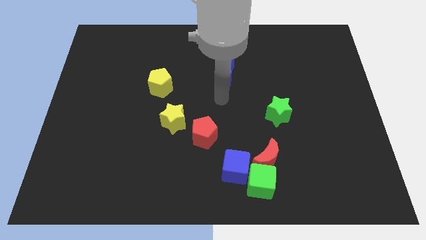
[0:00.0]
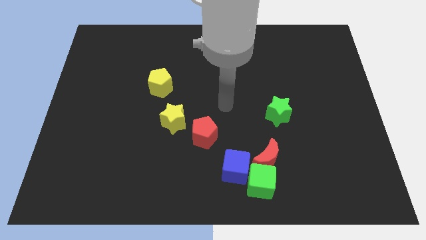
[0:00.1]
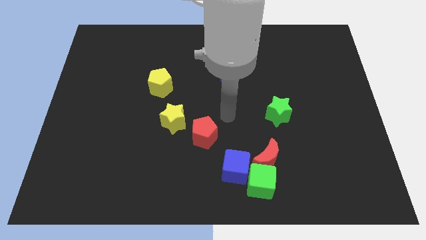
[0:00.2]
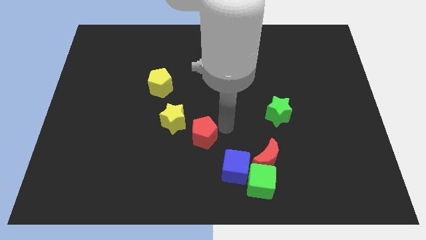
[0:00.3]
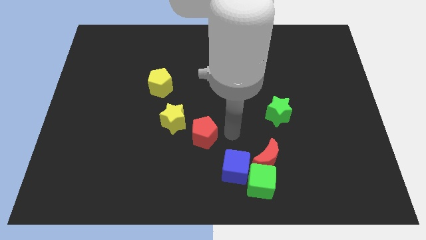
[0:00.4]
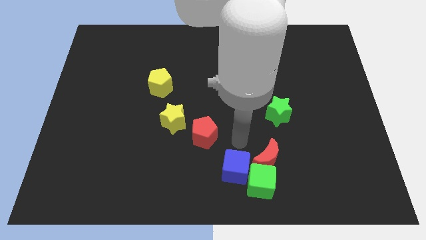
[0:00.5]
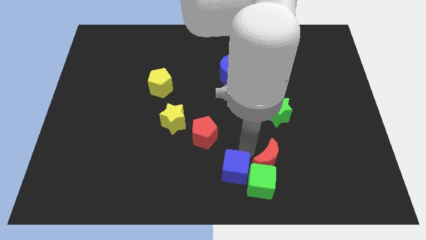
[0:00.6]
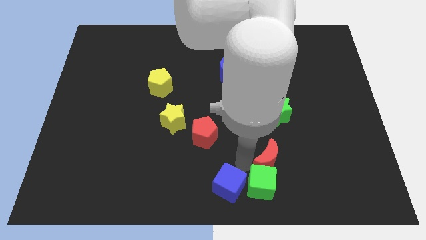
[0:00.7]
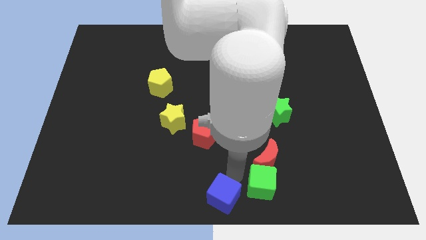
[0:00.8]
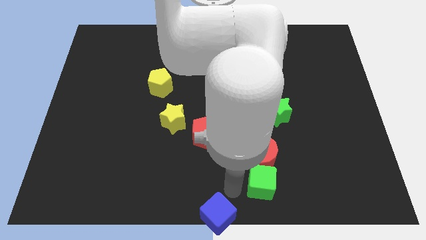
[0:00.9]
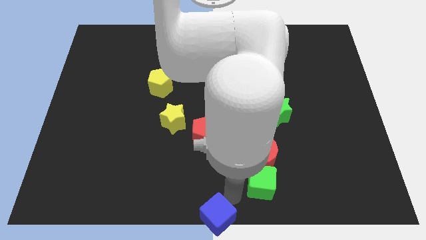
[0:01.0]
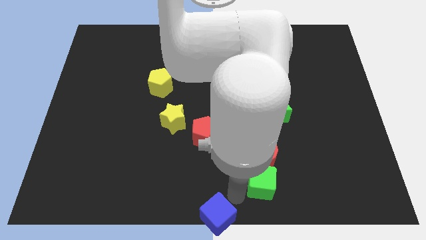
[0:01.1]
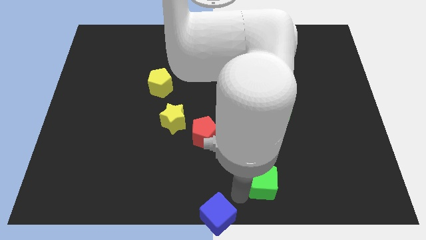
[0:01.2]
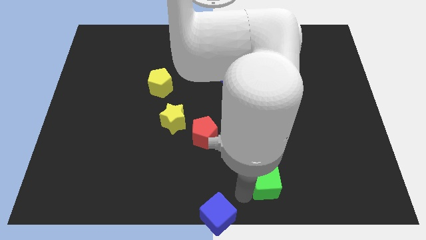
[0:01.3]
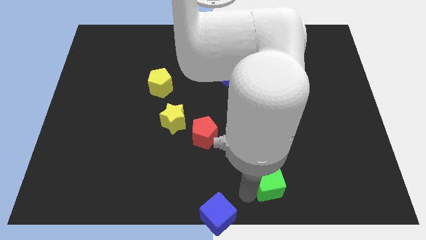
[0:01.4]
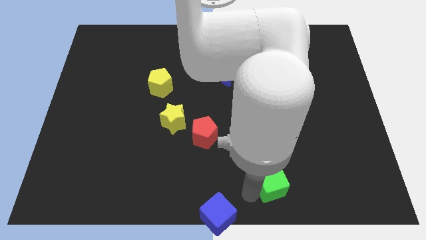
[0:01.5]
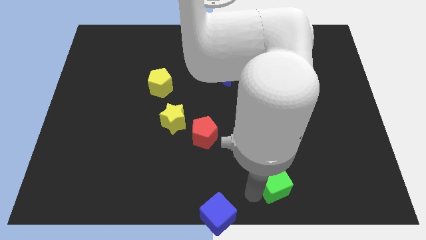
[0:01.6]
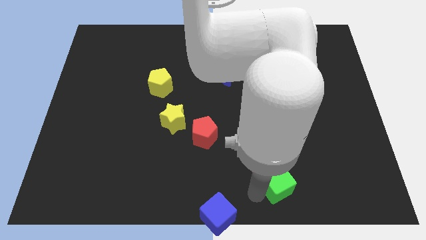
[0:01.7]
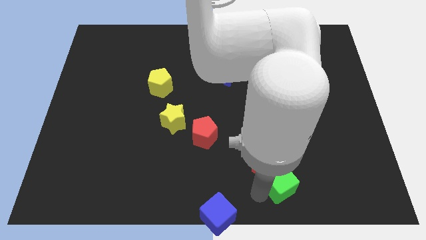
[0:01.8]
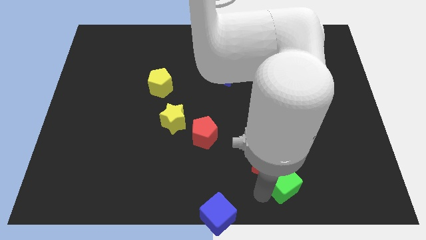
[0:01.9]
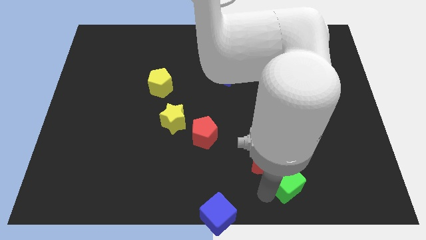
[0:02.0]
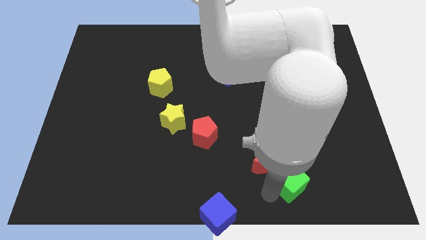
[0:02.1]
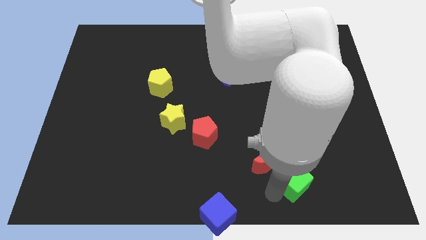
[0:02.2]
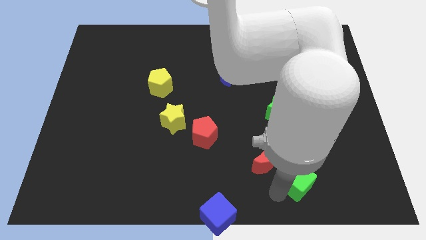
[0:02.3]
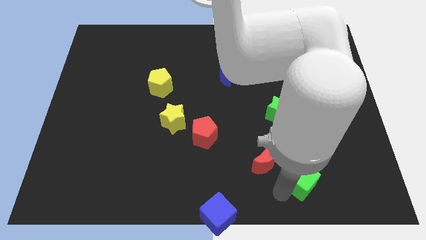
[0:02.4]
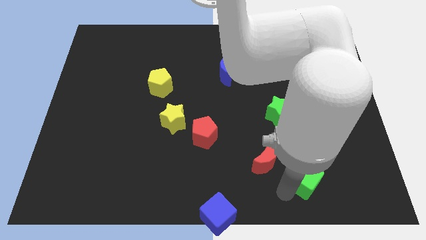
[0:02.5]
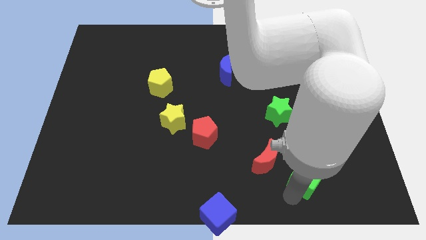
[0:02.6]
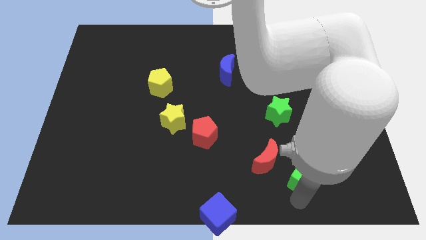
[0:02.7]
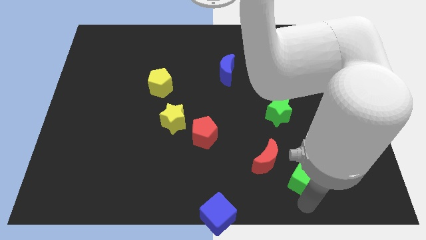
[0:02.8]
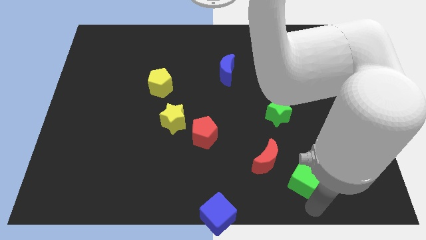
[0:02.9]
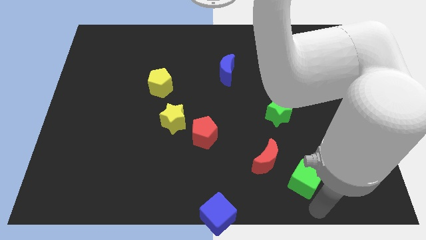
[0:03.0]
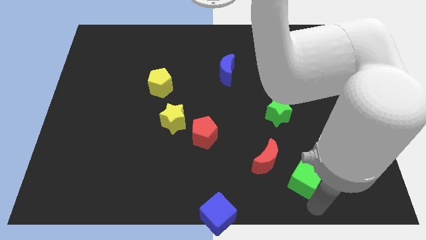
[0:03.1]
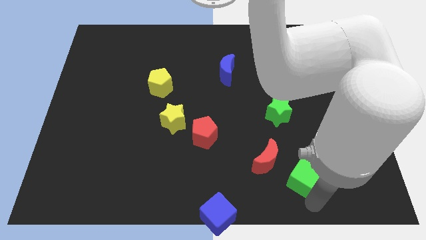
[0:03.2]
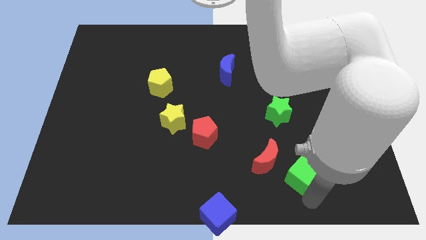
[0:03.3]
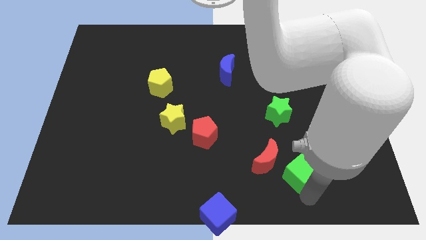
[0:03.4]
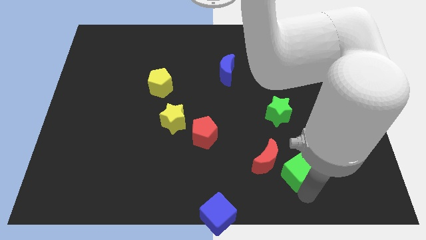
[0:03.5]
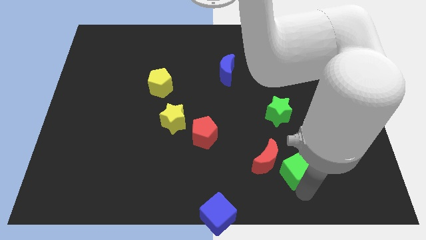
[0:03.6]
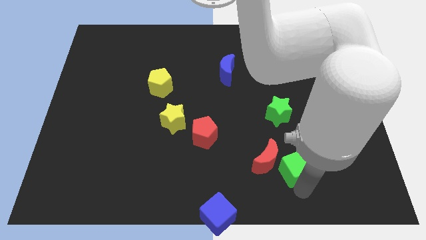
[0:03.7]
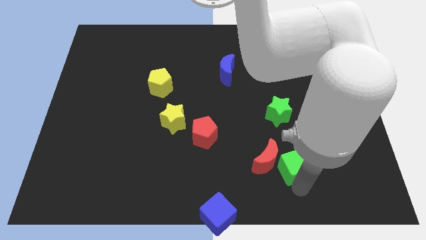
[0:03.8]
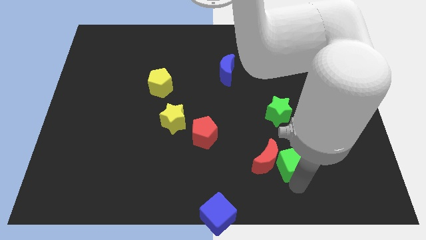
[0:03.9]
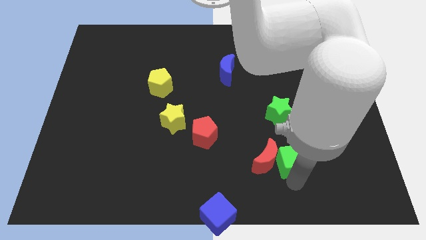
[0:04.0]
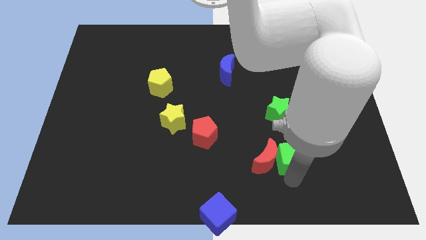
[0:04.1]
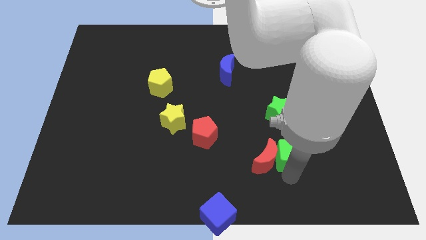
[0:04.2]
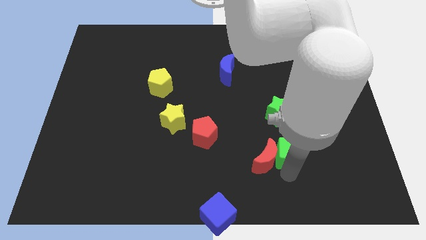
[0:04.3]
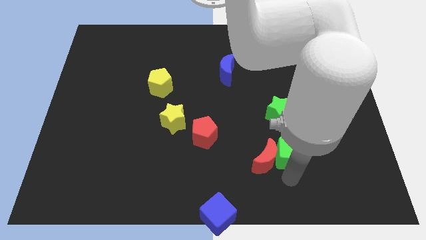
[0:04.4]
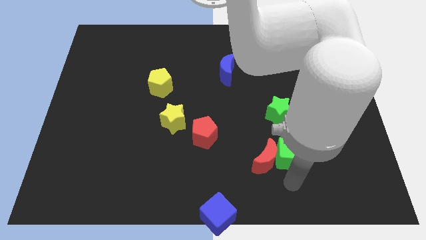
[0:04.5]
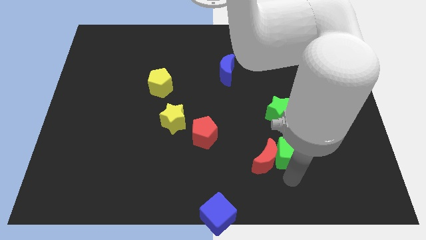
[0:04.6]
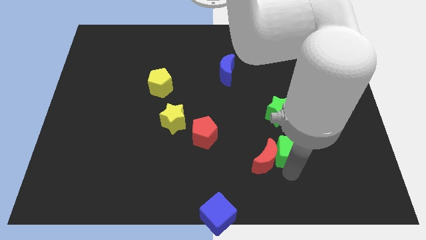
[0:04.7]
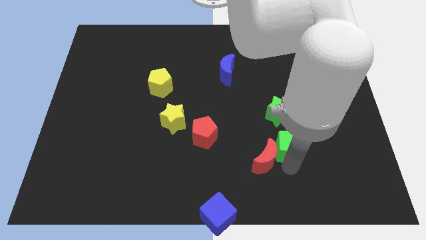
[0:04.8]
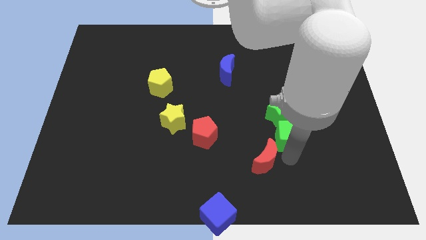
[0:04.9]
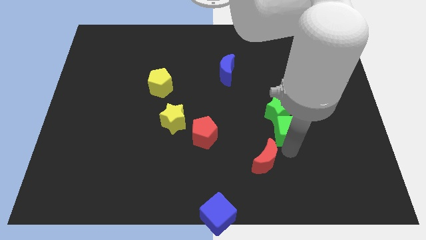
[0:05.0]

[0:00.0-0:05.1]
move the green cube next to the green star

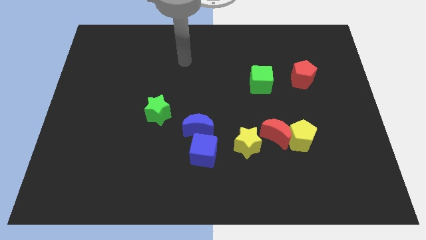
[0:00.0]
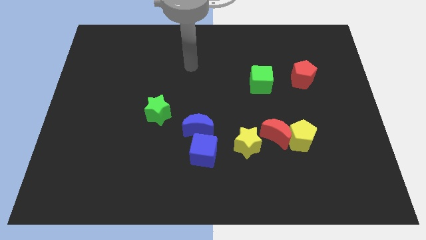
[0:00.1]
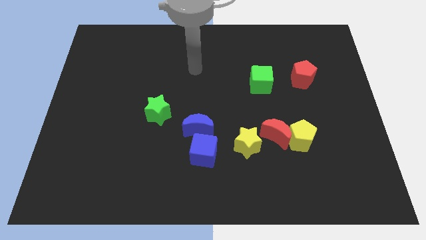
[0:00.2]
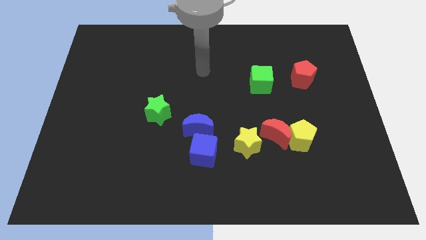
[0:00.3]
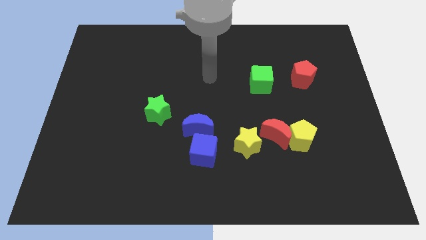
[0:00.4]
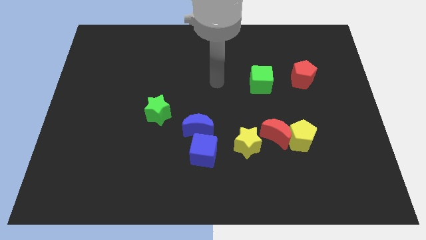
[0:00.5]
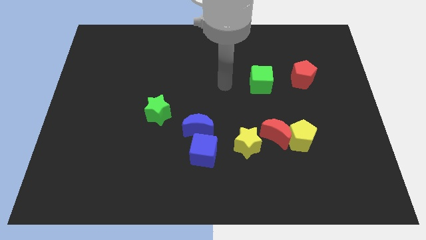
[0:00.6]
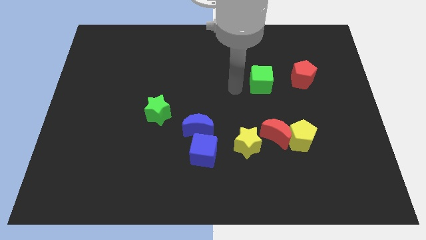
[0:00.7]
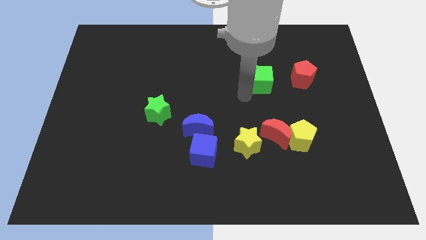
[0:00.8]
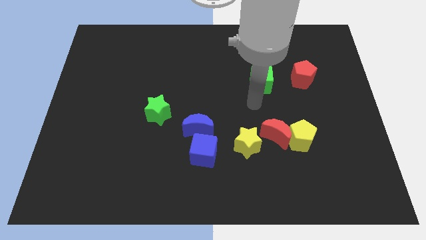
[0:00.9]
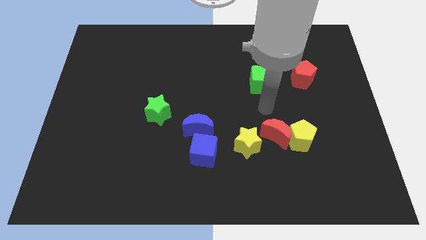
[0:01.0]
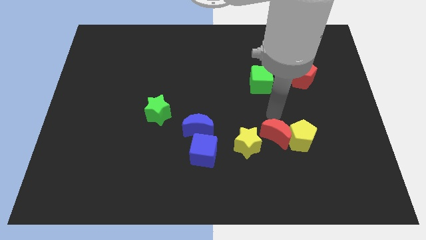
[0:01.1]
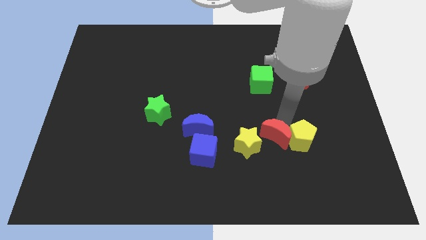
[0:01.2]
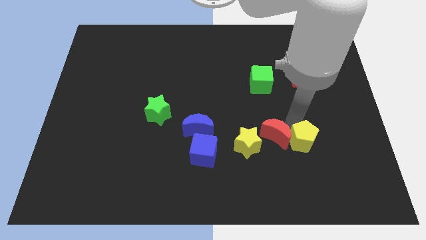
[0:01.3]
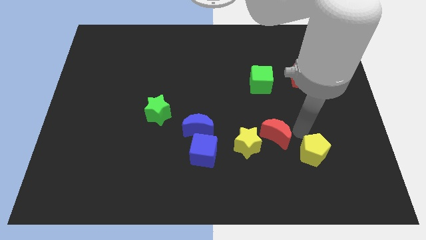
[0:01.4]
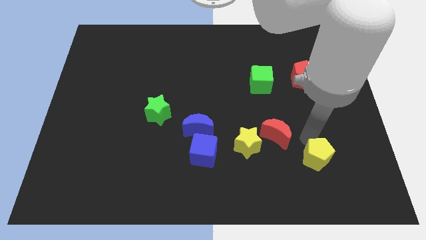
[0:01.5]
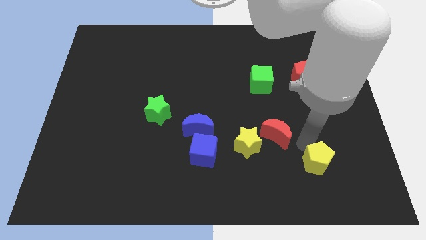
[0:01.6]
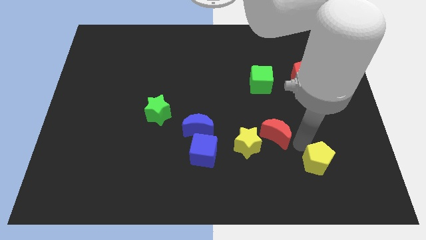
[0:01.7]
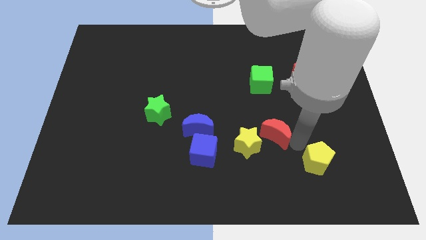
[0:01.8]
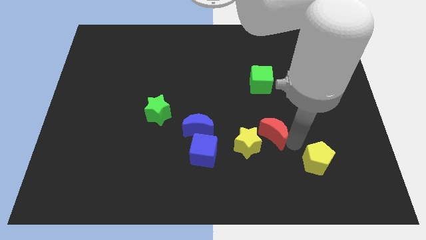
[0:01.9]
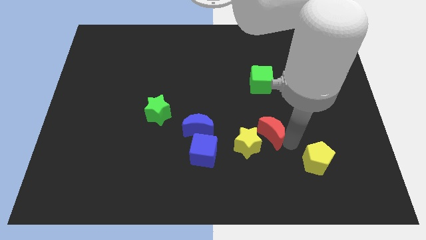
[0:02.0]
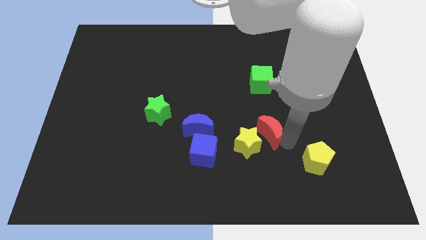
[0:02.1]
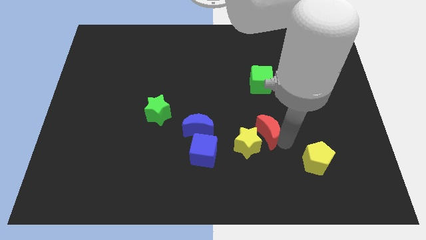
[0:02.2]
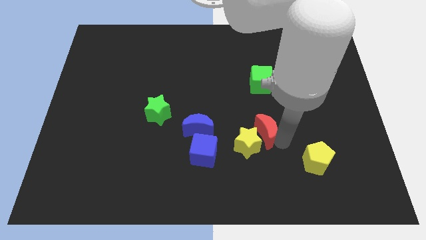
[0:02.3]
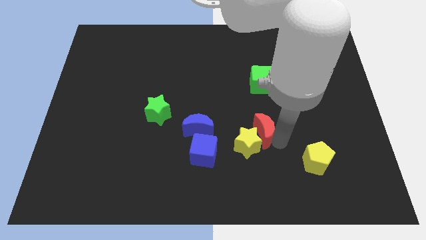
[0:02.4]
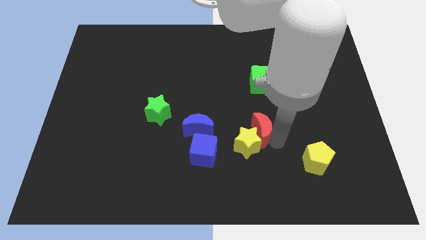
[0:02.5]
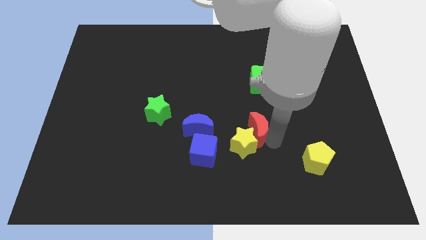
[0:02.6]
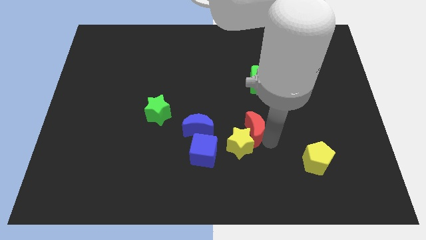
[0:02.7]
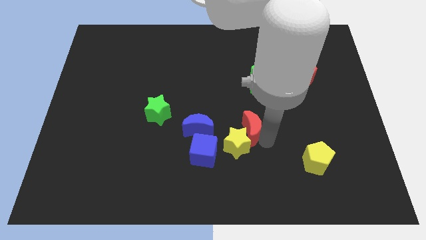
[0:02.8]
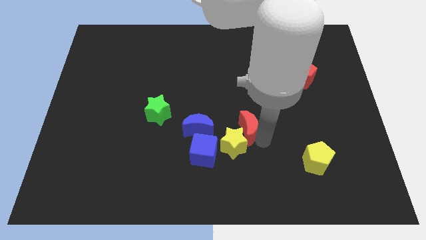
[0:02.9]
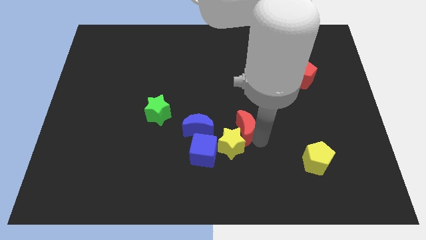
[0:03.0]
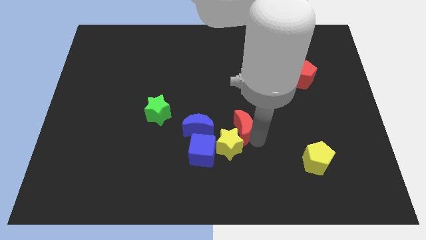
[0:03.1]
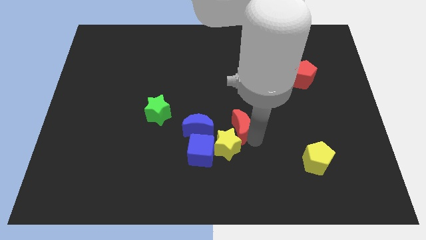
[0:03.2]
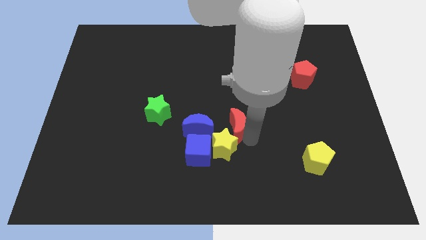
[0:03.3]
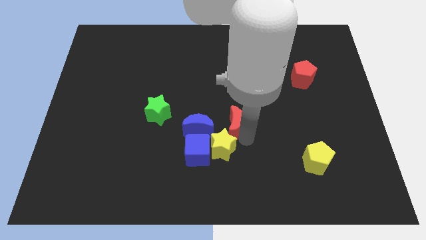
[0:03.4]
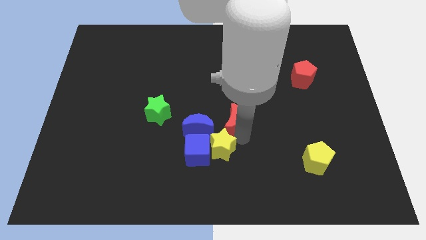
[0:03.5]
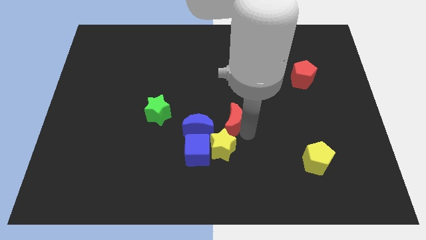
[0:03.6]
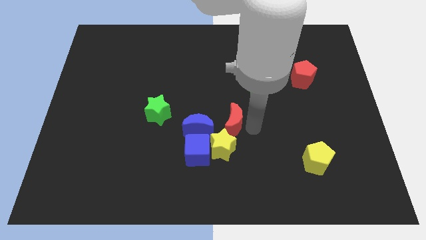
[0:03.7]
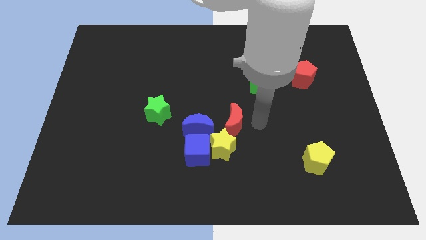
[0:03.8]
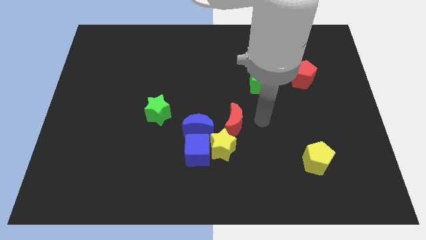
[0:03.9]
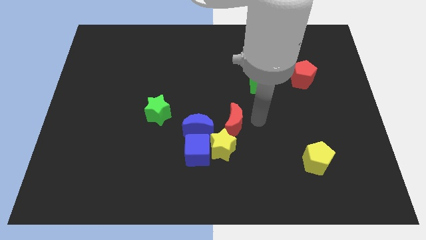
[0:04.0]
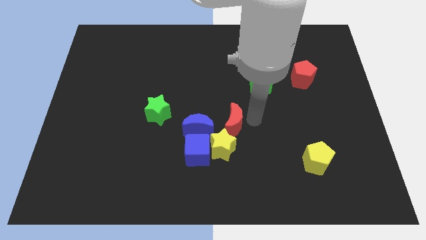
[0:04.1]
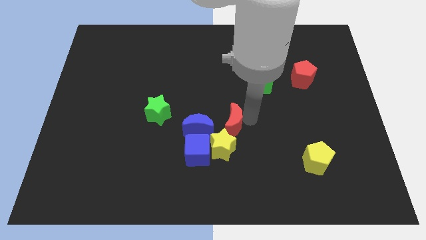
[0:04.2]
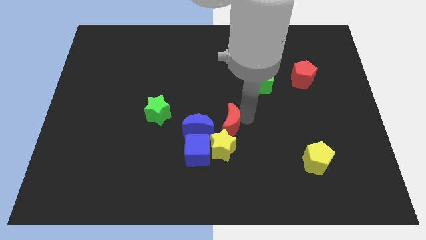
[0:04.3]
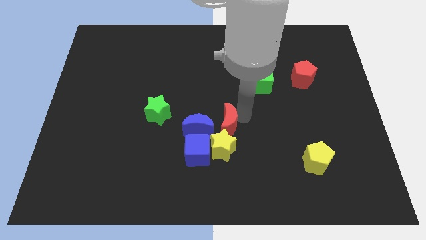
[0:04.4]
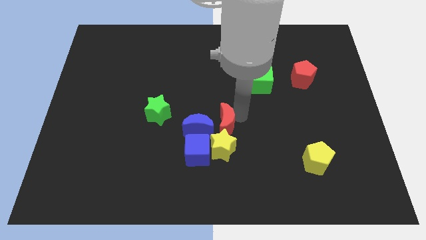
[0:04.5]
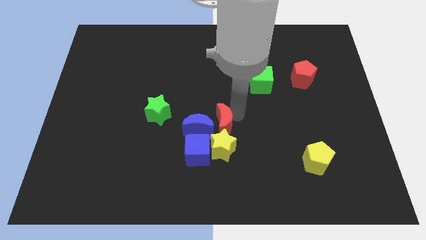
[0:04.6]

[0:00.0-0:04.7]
put the red moon towards the blue moon
